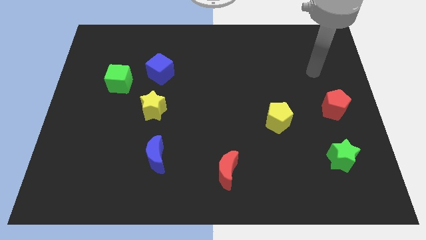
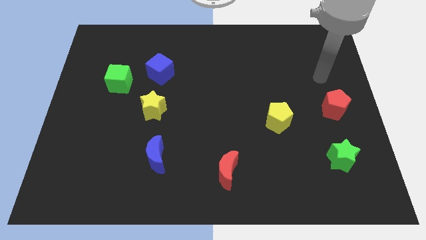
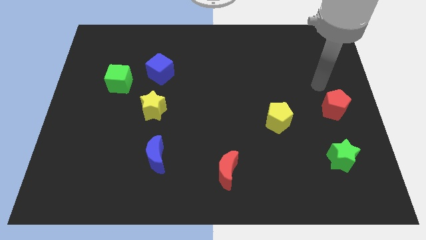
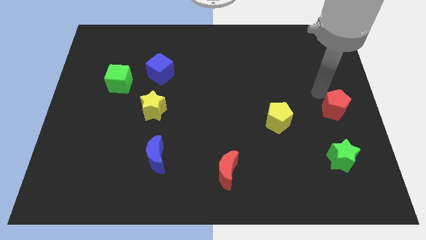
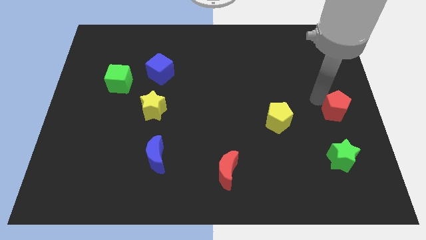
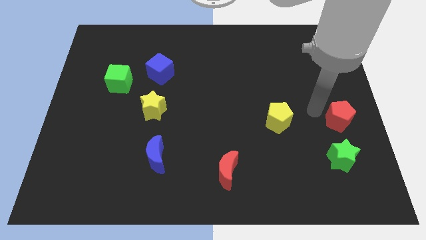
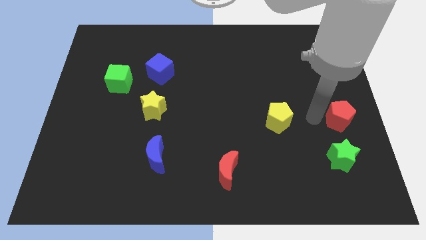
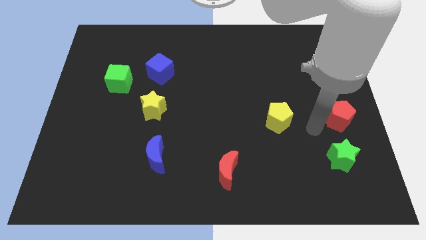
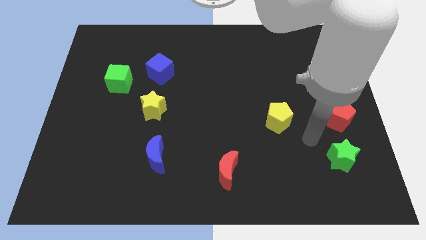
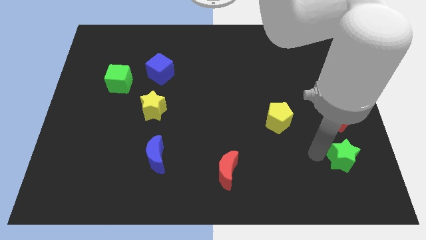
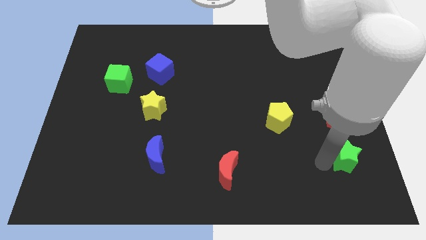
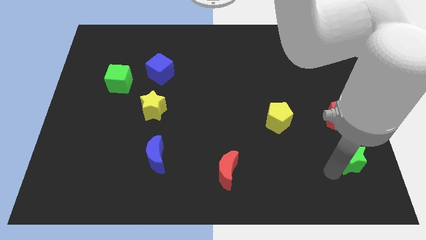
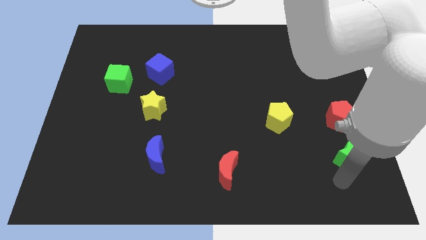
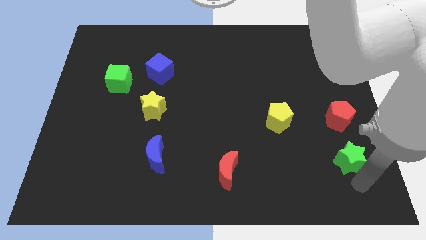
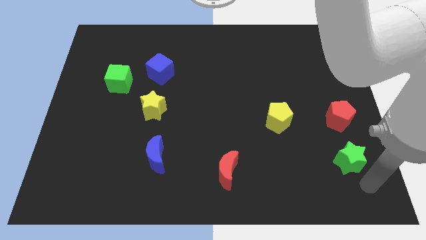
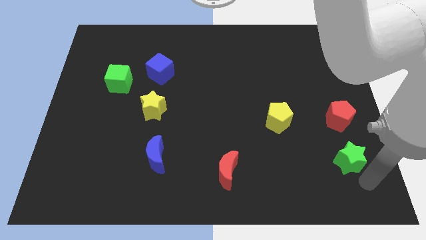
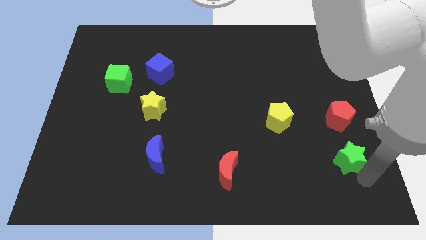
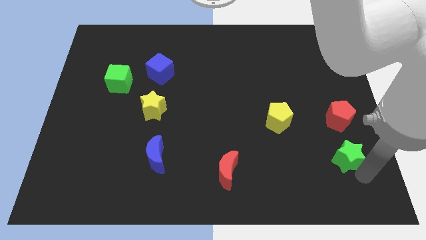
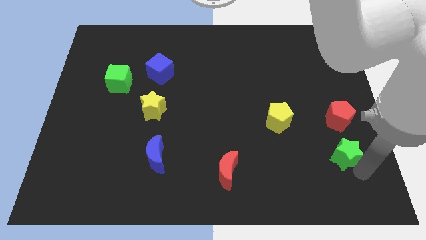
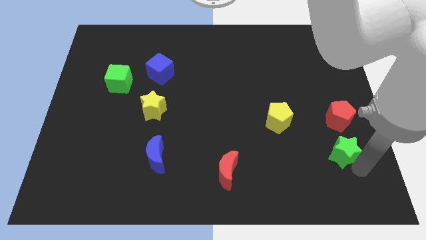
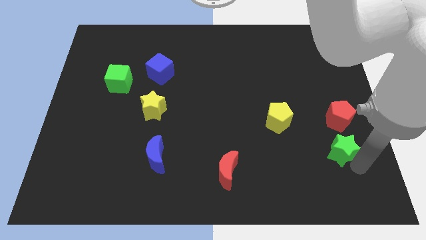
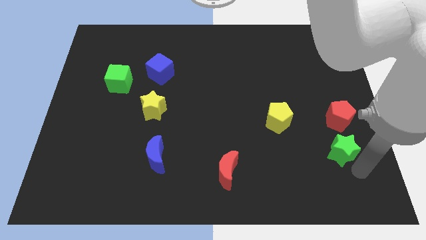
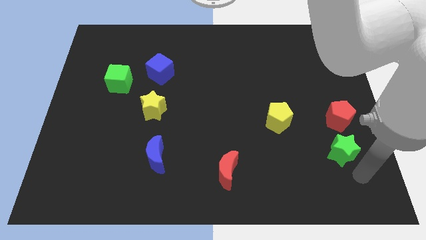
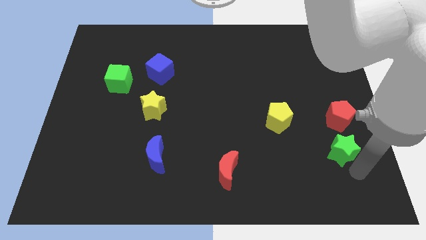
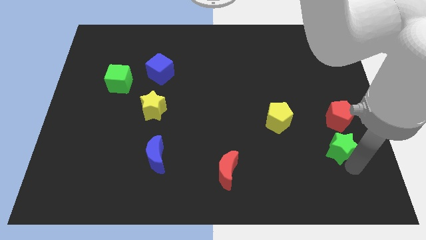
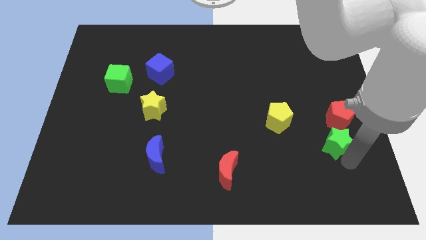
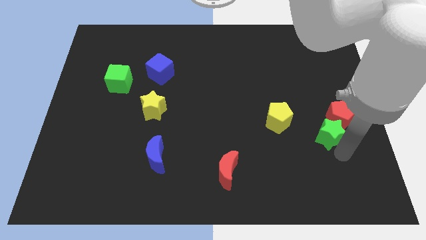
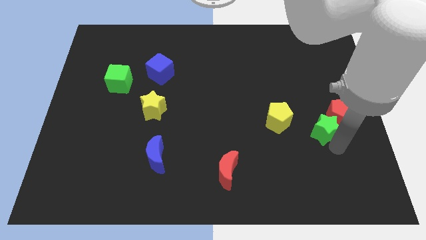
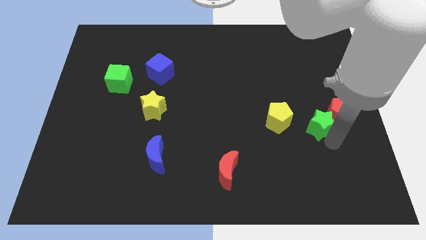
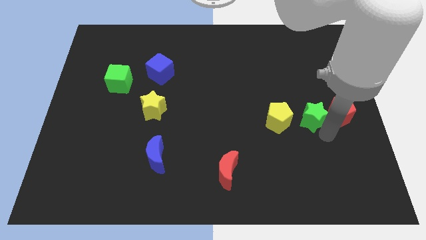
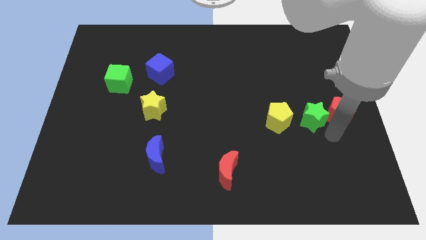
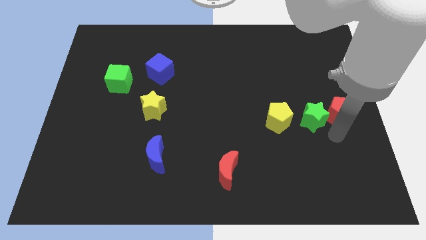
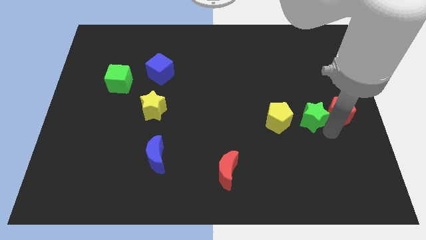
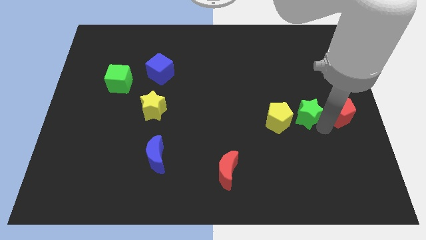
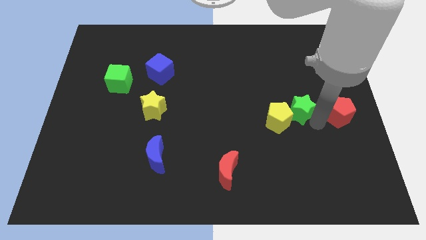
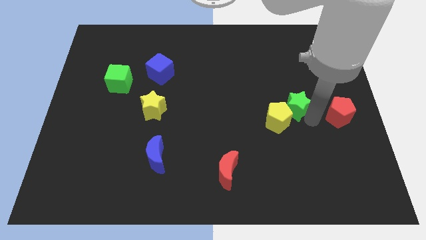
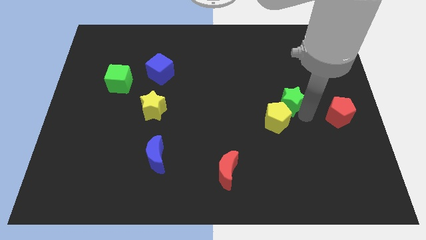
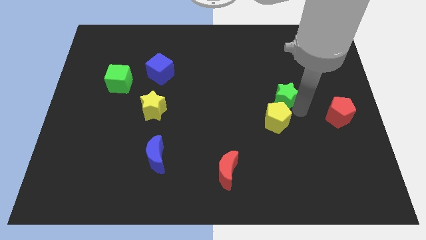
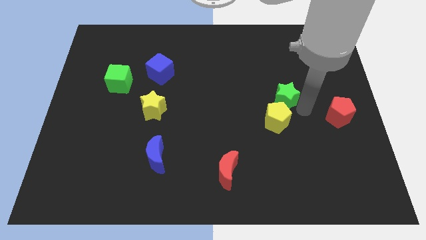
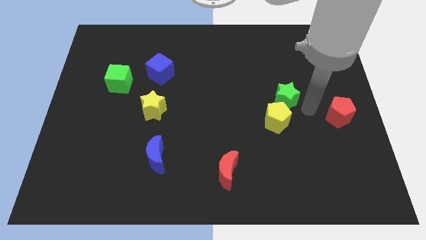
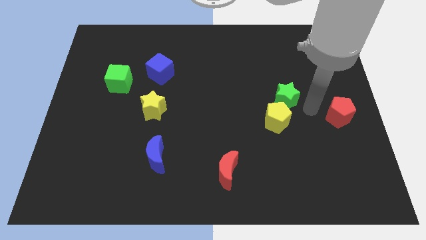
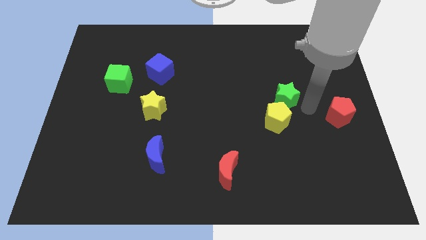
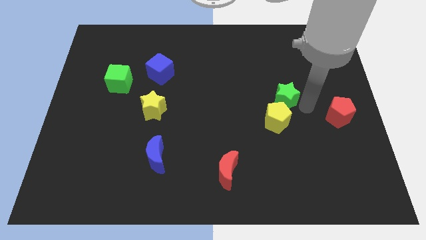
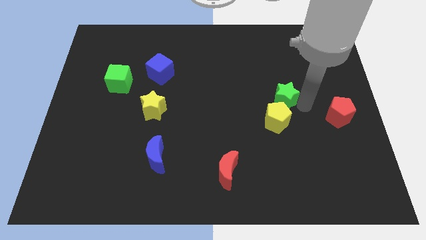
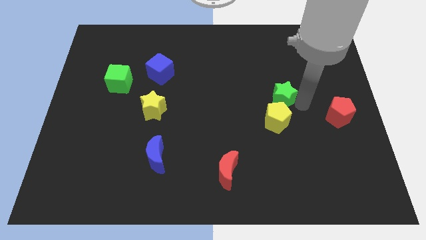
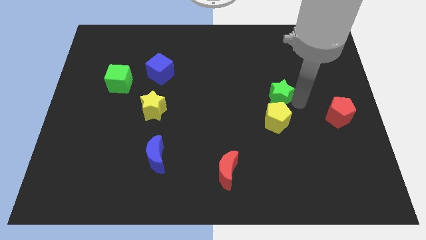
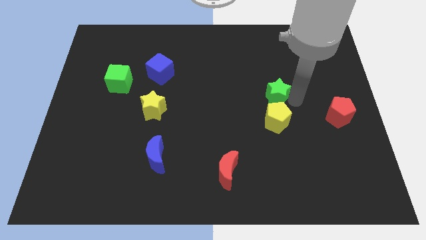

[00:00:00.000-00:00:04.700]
slide the green star upwards and to the left diagonally

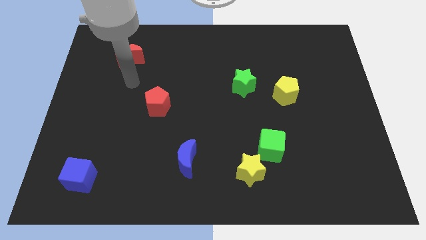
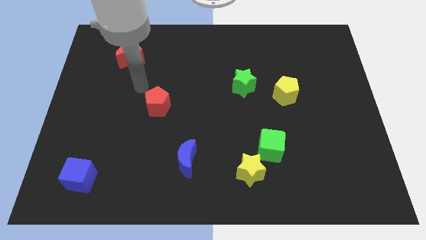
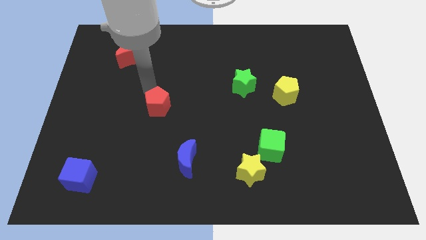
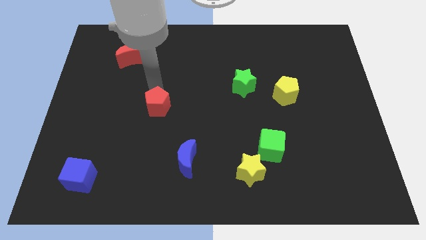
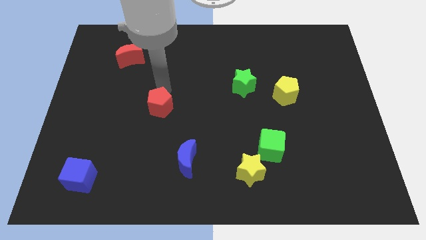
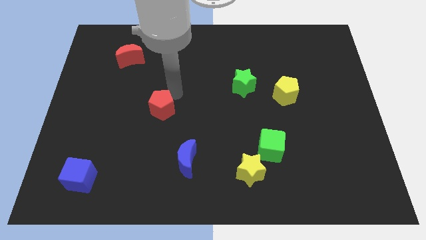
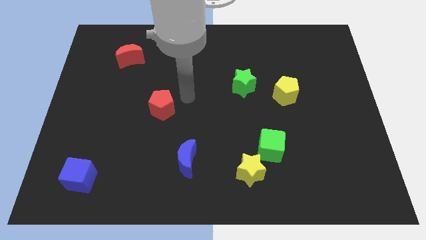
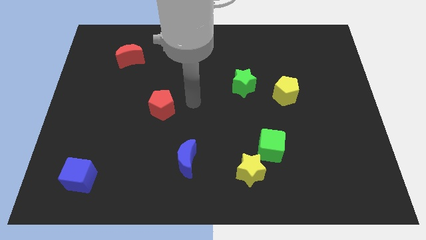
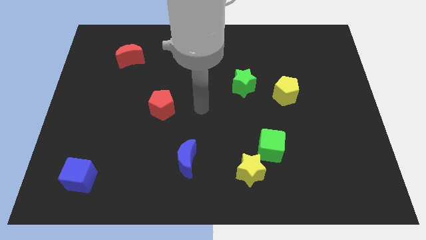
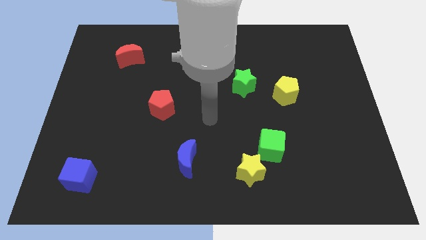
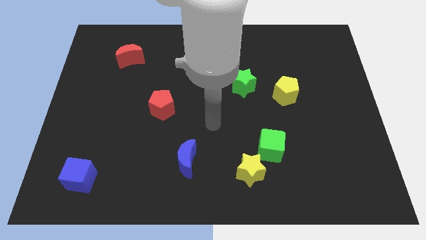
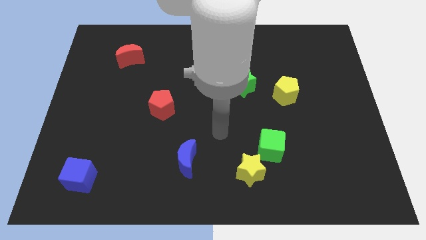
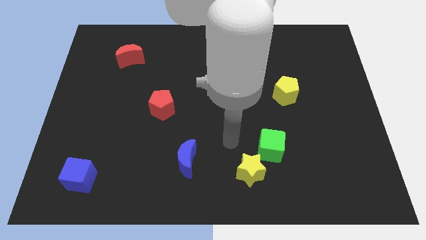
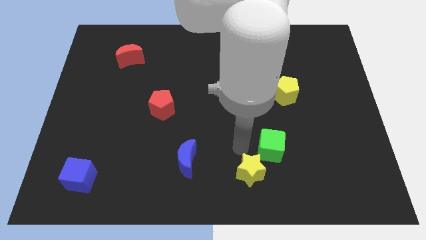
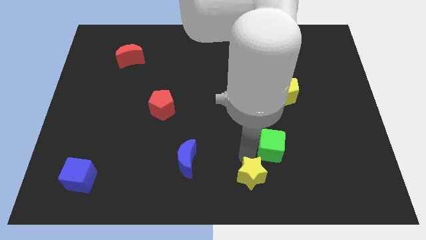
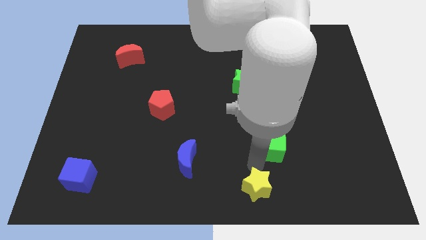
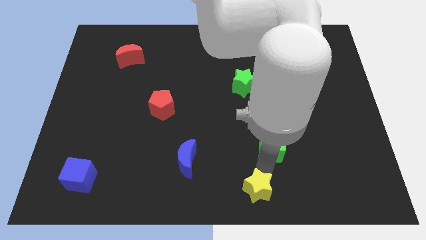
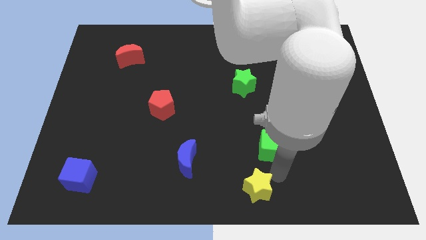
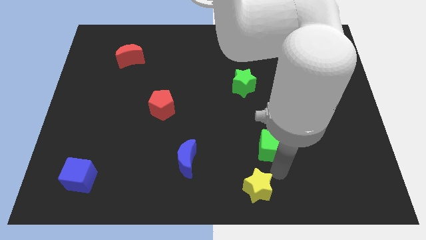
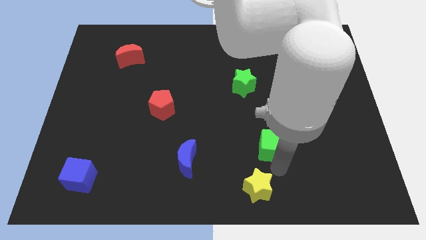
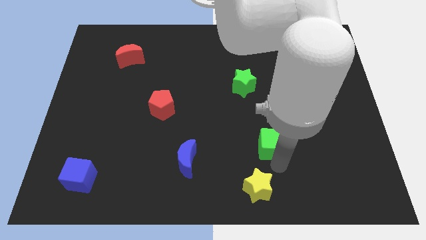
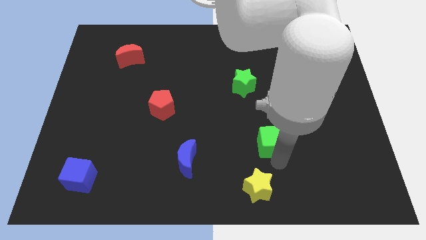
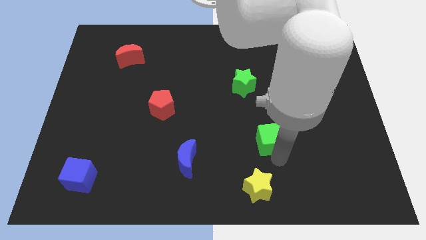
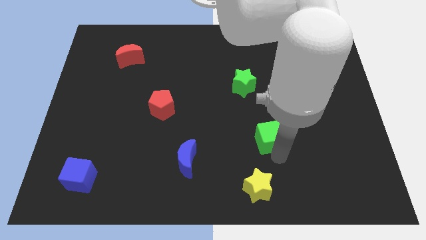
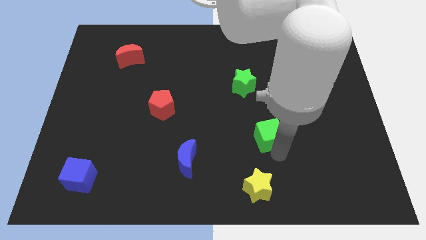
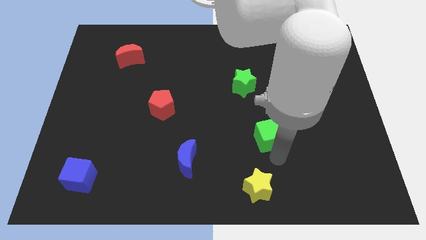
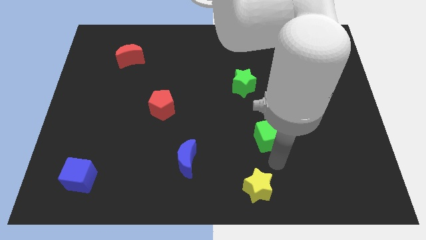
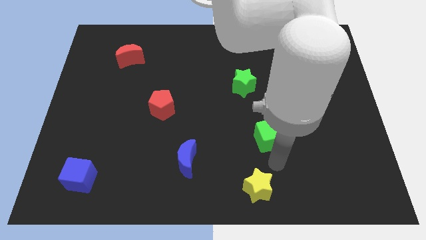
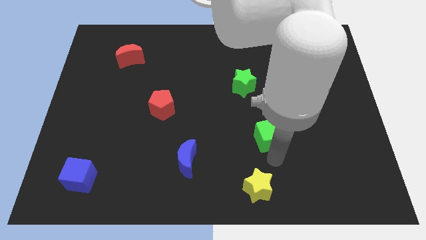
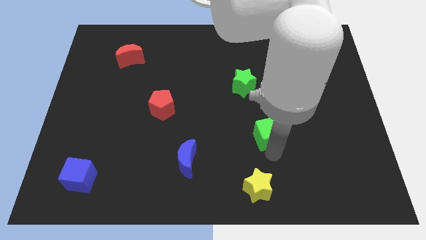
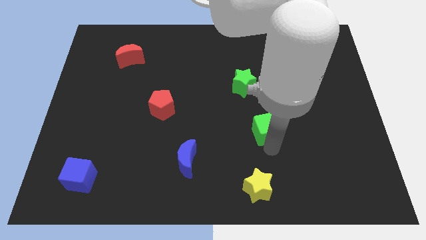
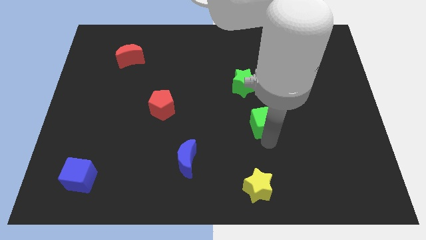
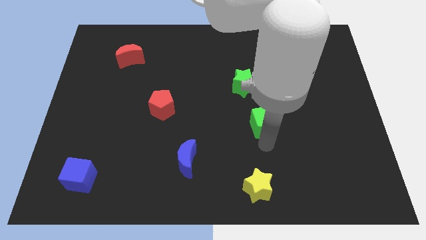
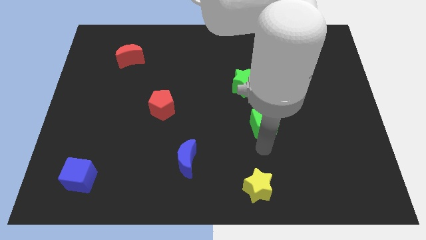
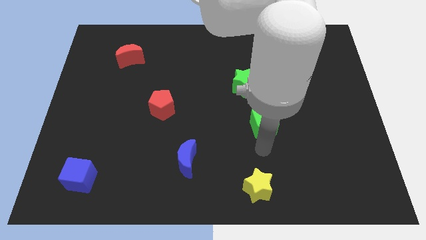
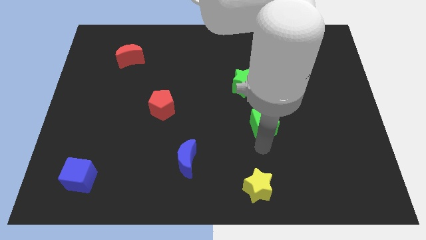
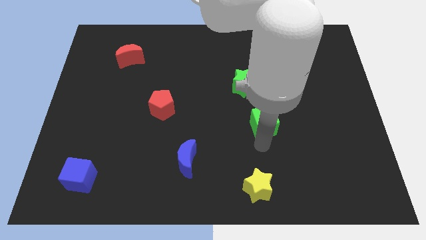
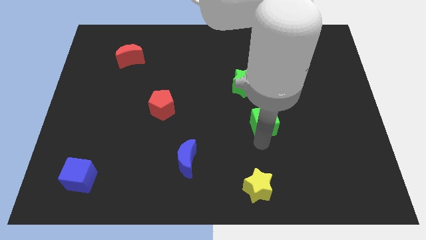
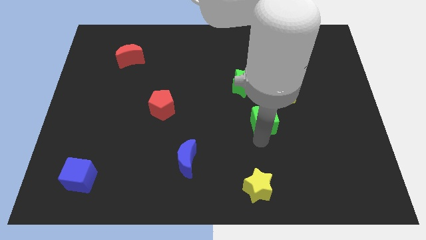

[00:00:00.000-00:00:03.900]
move the green cube a little bit up
